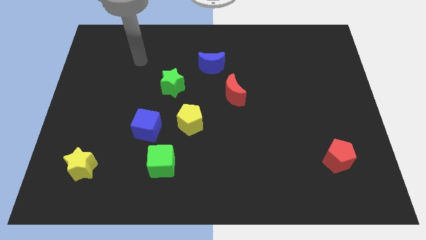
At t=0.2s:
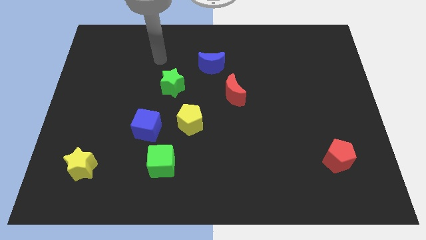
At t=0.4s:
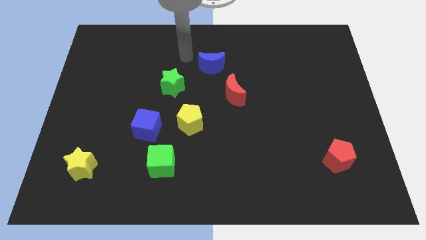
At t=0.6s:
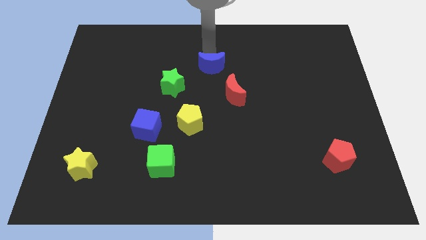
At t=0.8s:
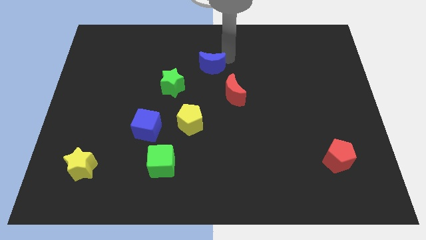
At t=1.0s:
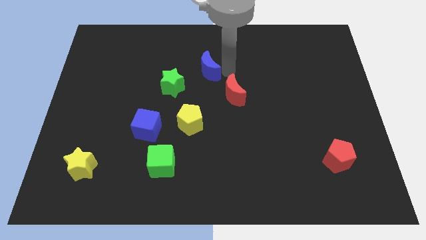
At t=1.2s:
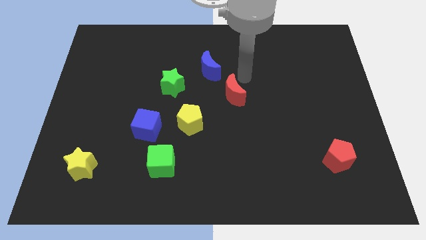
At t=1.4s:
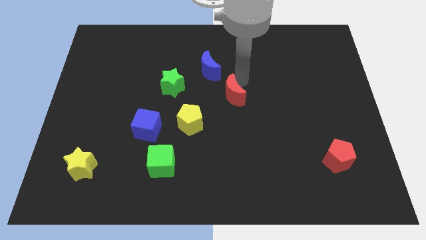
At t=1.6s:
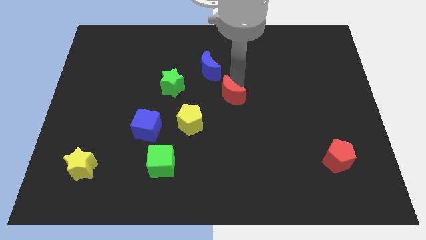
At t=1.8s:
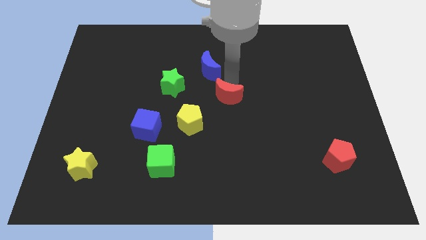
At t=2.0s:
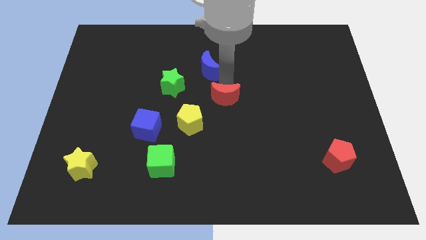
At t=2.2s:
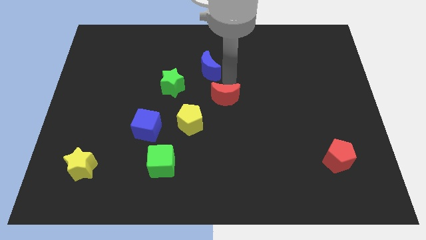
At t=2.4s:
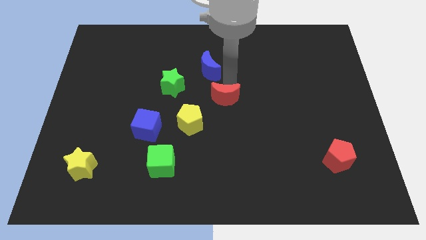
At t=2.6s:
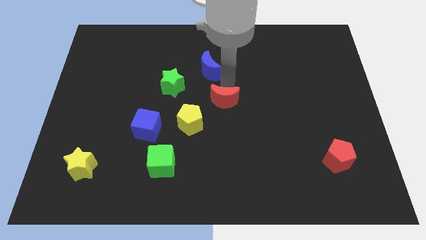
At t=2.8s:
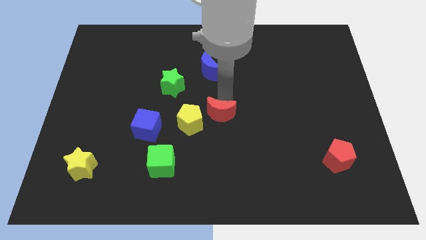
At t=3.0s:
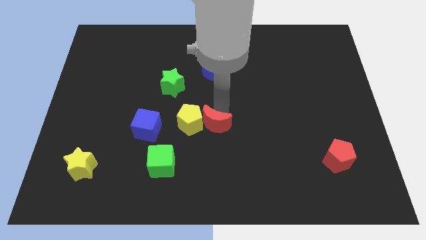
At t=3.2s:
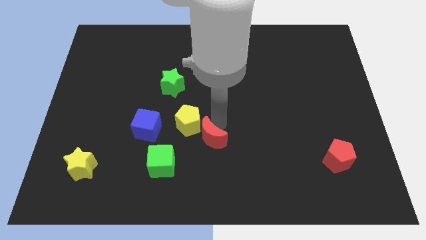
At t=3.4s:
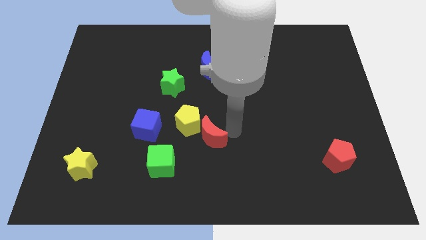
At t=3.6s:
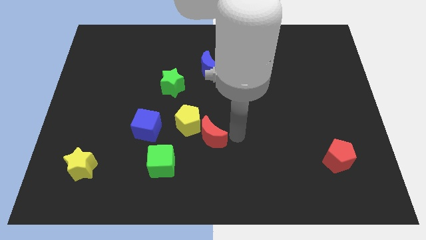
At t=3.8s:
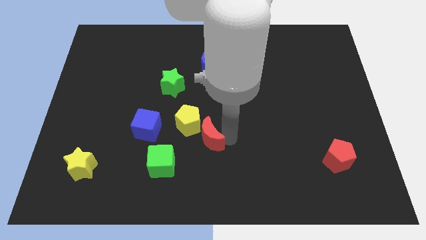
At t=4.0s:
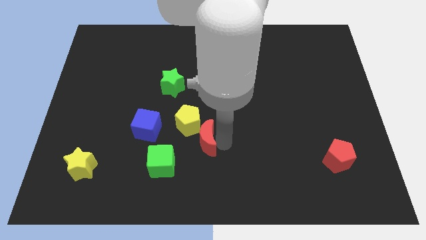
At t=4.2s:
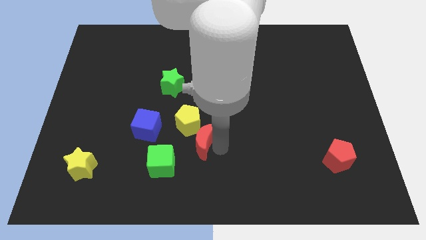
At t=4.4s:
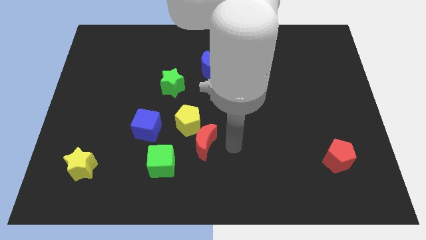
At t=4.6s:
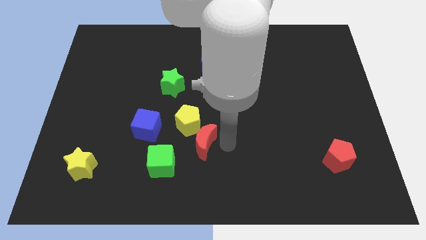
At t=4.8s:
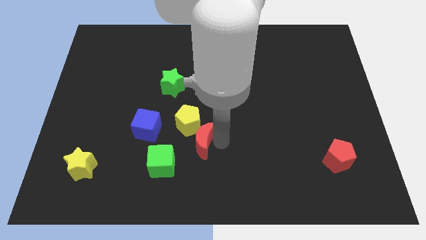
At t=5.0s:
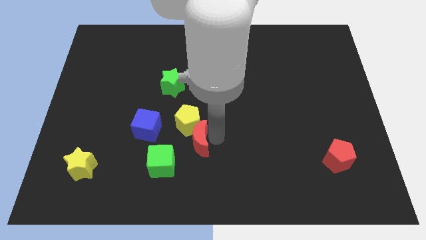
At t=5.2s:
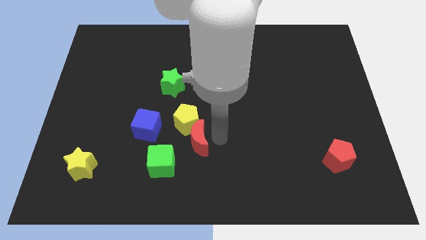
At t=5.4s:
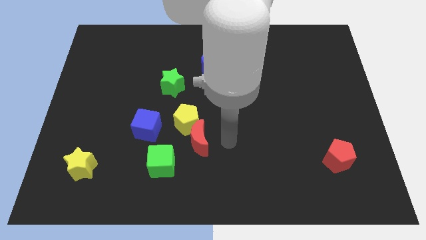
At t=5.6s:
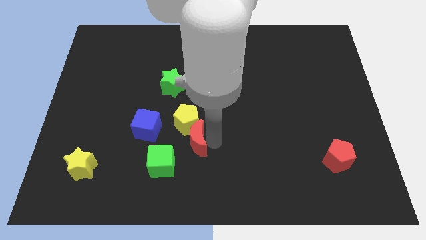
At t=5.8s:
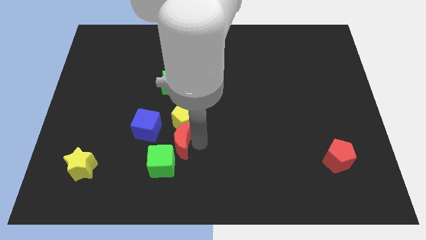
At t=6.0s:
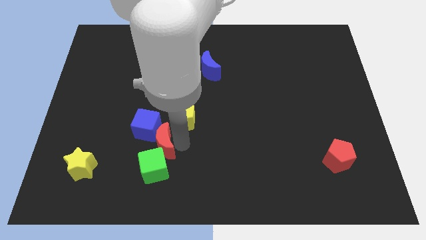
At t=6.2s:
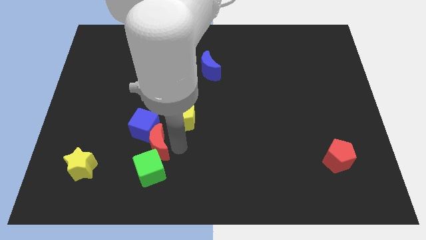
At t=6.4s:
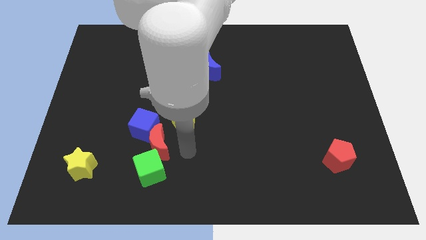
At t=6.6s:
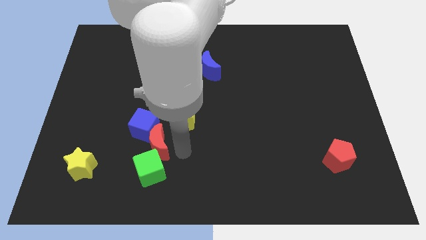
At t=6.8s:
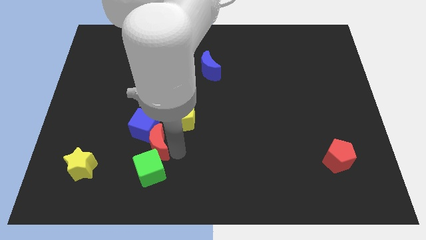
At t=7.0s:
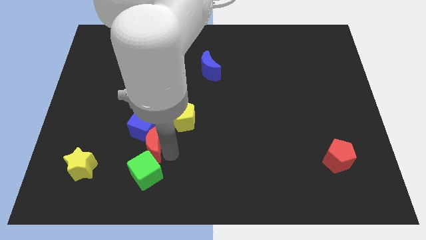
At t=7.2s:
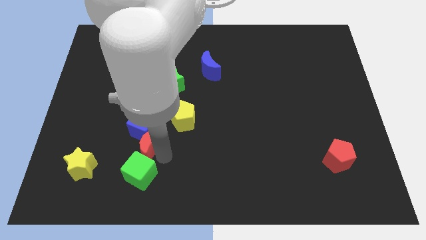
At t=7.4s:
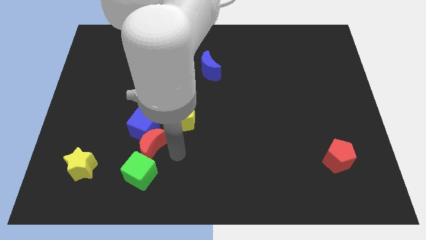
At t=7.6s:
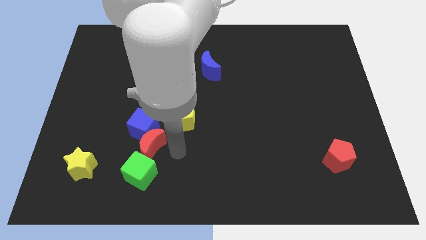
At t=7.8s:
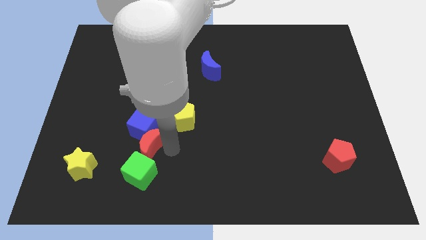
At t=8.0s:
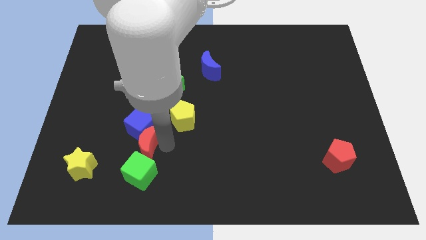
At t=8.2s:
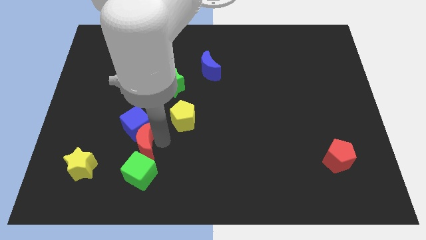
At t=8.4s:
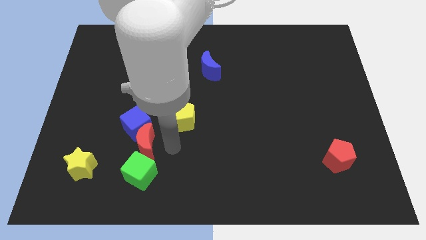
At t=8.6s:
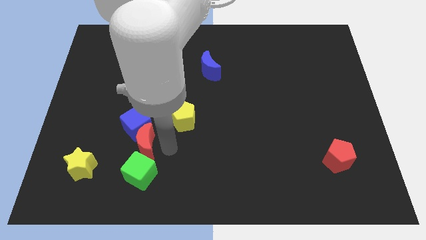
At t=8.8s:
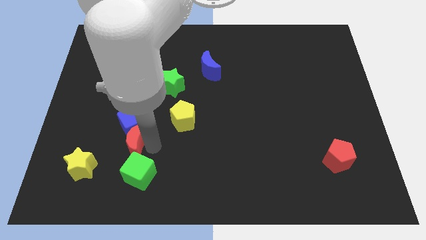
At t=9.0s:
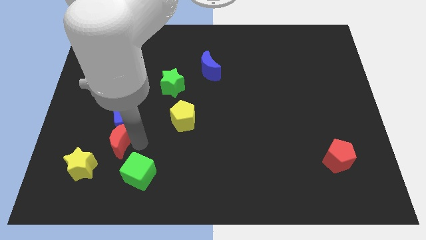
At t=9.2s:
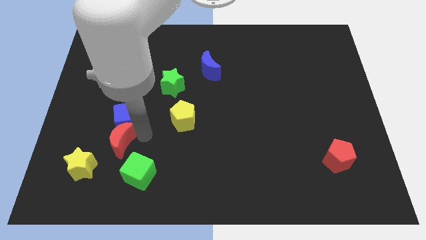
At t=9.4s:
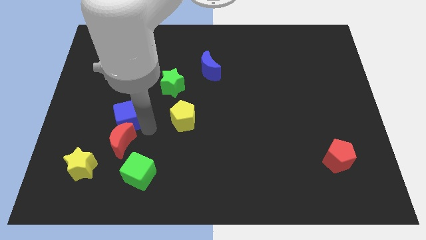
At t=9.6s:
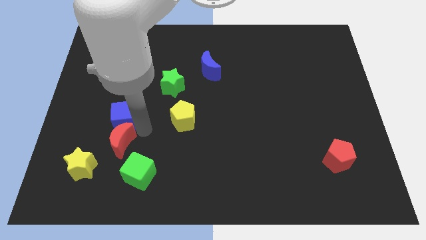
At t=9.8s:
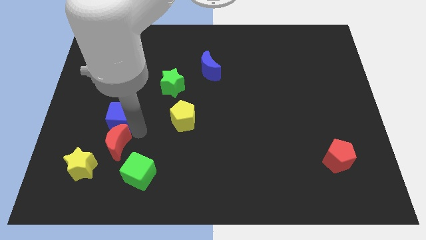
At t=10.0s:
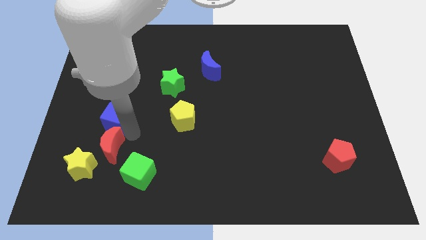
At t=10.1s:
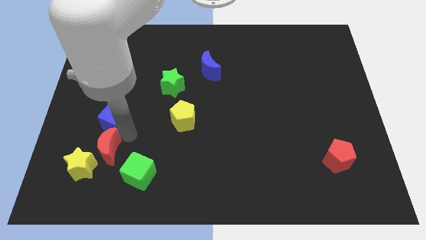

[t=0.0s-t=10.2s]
move the red moon next to the yellow star

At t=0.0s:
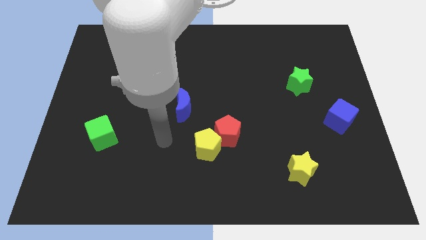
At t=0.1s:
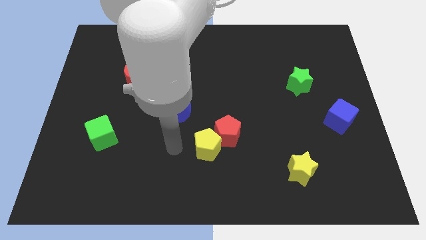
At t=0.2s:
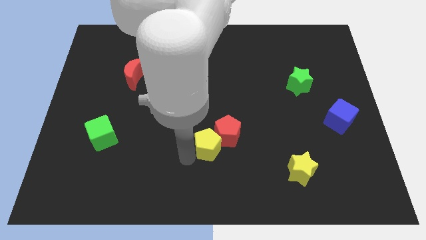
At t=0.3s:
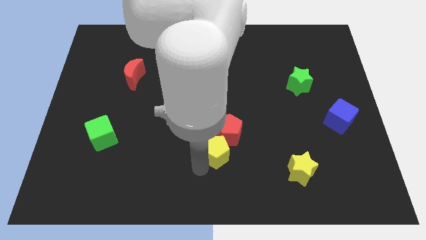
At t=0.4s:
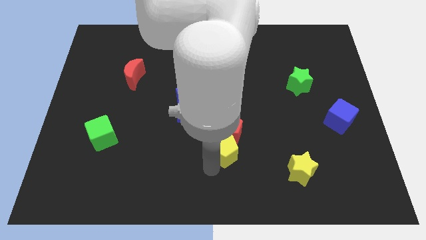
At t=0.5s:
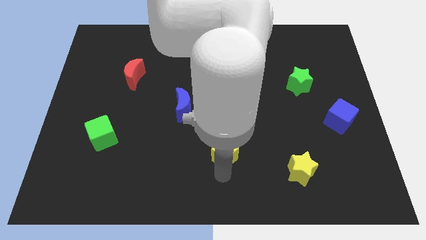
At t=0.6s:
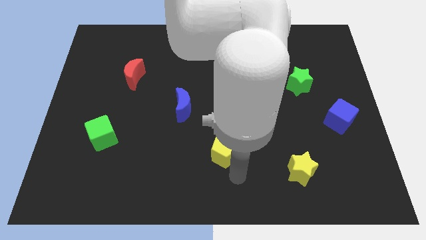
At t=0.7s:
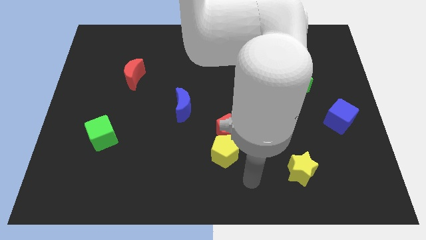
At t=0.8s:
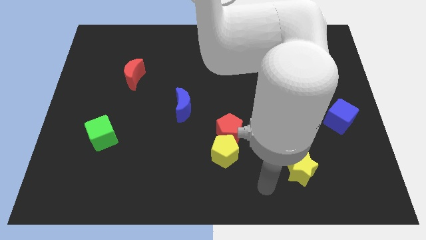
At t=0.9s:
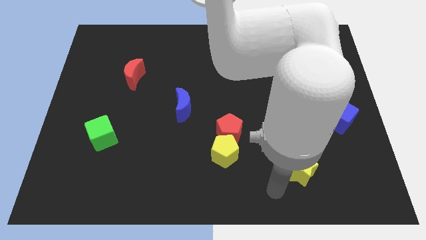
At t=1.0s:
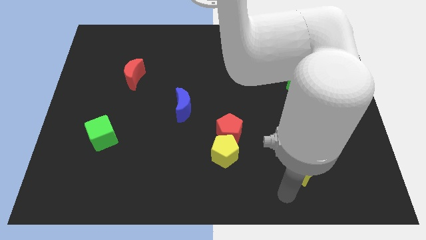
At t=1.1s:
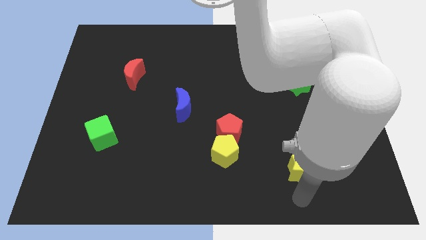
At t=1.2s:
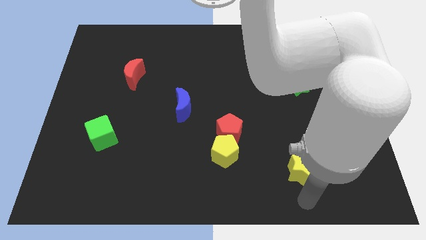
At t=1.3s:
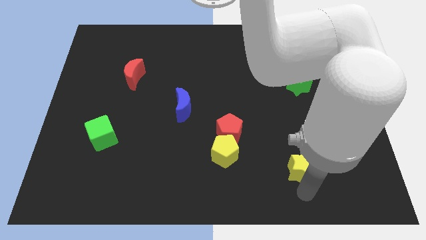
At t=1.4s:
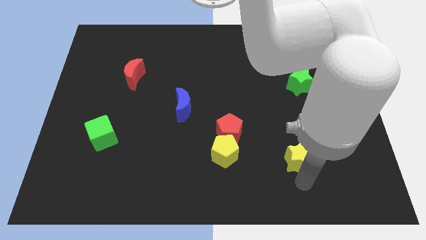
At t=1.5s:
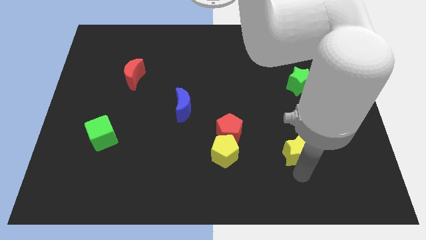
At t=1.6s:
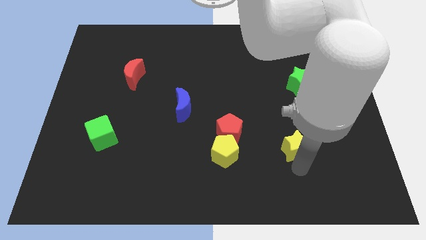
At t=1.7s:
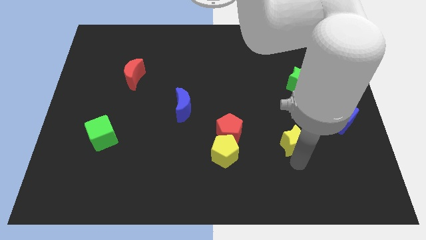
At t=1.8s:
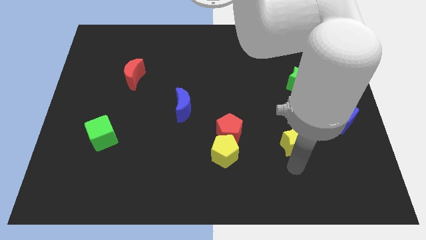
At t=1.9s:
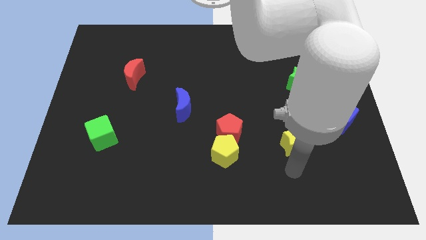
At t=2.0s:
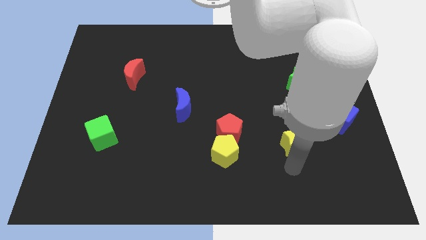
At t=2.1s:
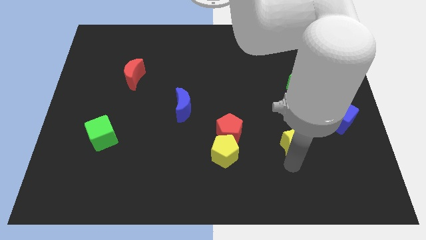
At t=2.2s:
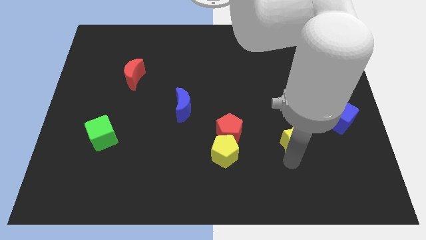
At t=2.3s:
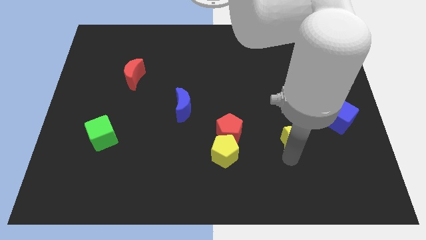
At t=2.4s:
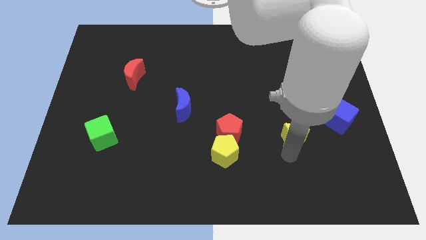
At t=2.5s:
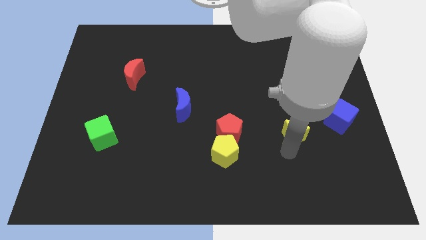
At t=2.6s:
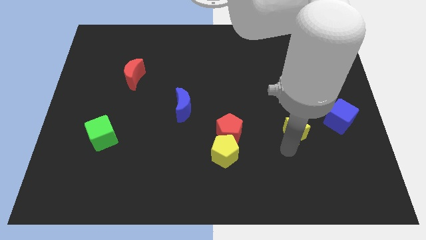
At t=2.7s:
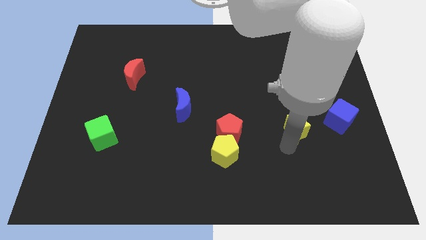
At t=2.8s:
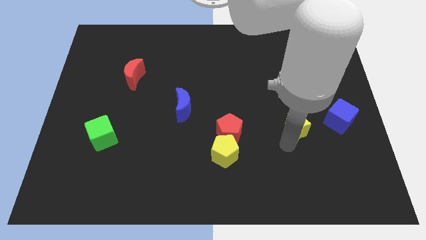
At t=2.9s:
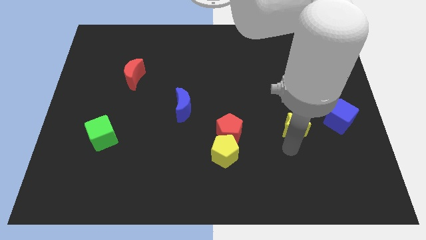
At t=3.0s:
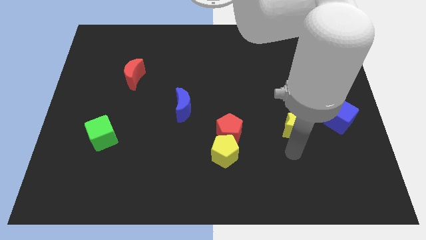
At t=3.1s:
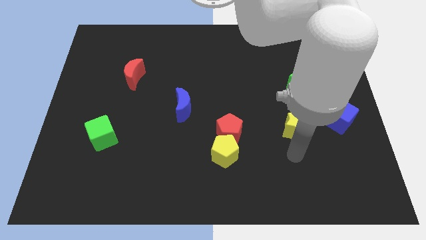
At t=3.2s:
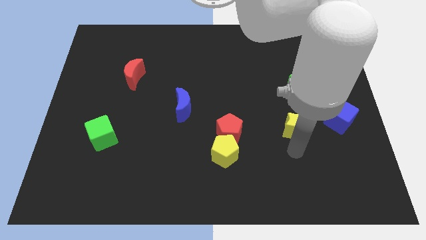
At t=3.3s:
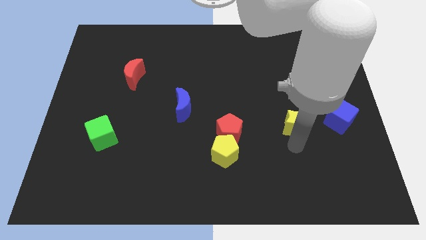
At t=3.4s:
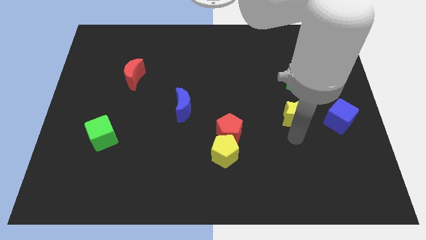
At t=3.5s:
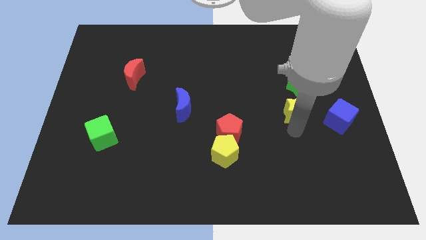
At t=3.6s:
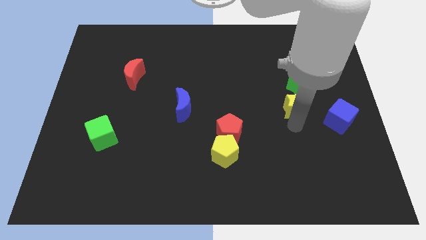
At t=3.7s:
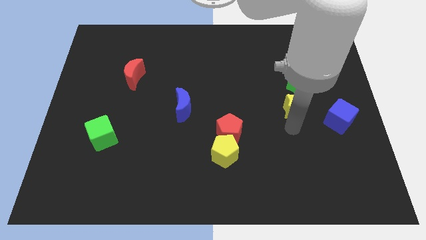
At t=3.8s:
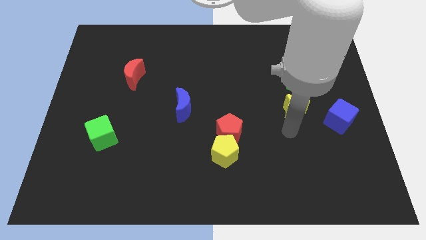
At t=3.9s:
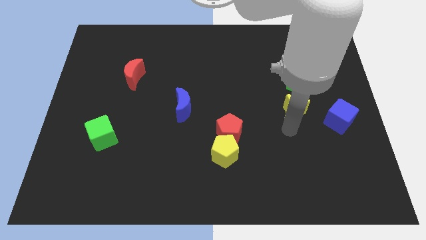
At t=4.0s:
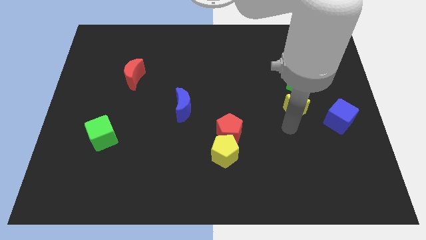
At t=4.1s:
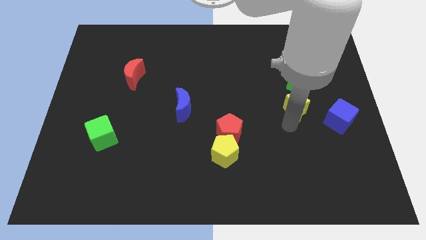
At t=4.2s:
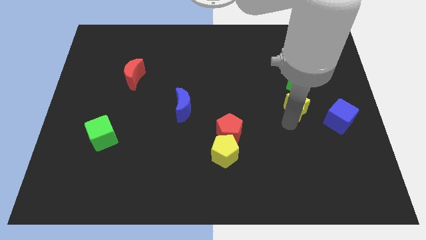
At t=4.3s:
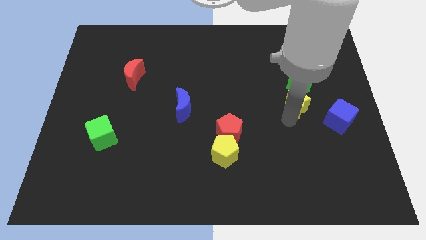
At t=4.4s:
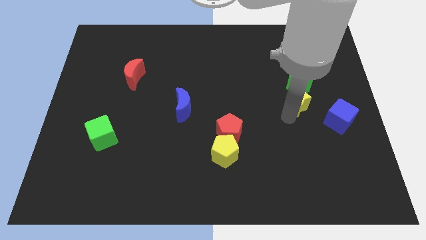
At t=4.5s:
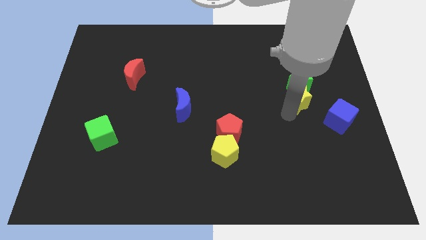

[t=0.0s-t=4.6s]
move the yellow star next to the green star
